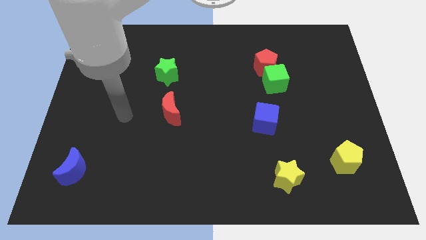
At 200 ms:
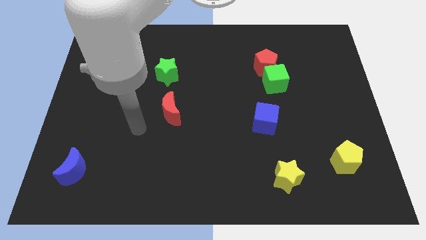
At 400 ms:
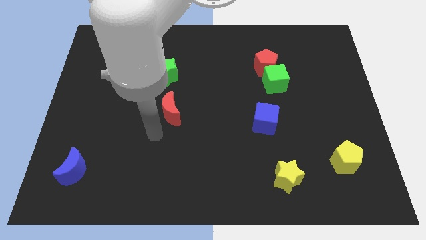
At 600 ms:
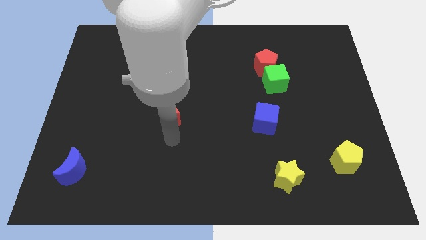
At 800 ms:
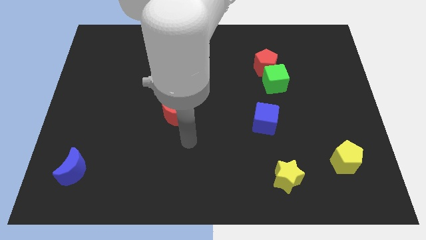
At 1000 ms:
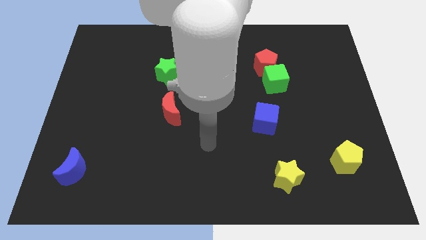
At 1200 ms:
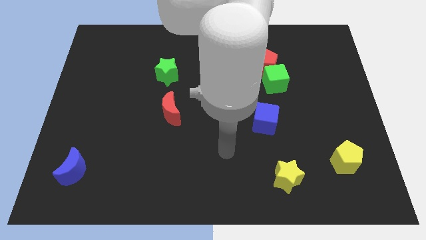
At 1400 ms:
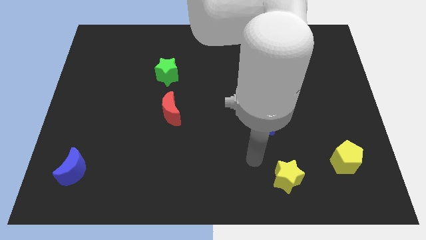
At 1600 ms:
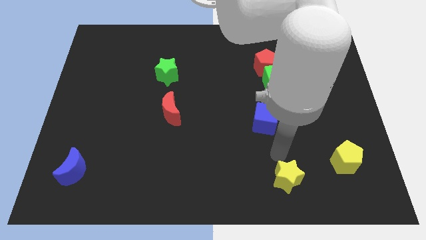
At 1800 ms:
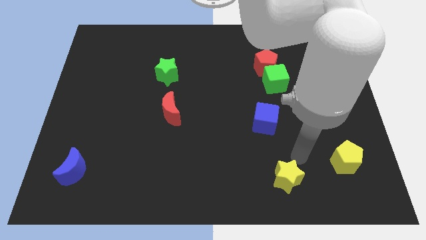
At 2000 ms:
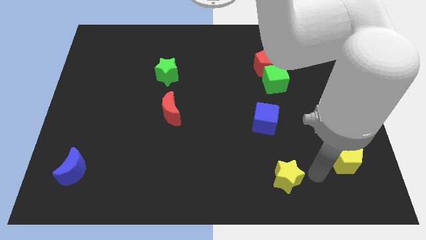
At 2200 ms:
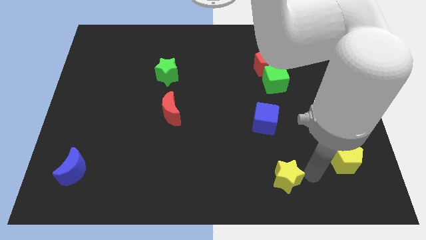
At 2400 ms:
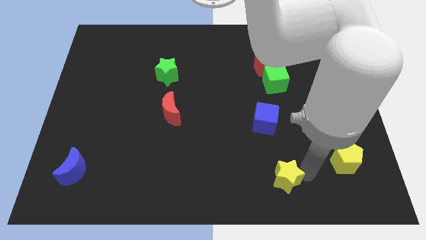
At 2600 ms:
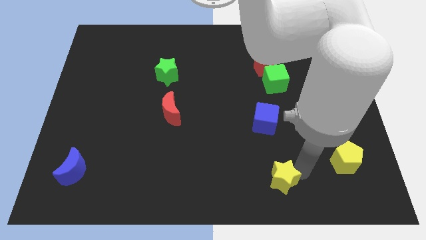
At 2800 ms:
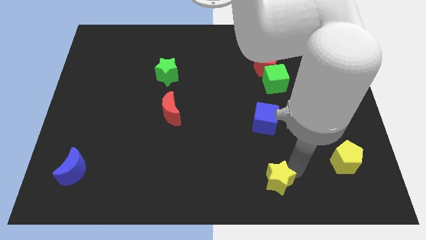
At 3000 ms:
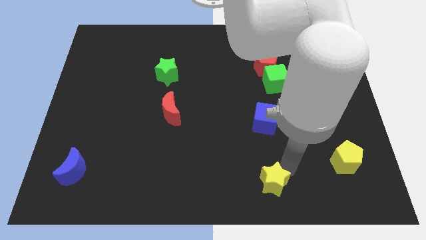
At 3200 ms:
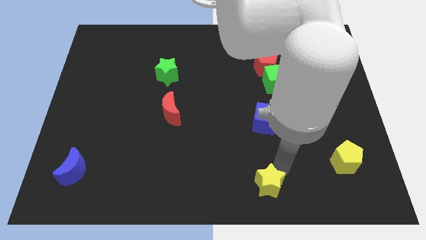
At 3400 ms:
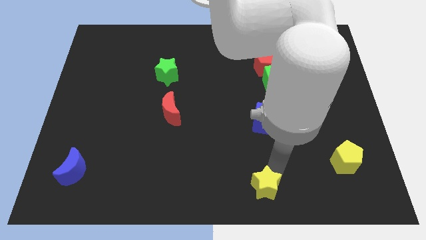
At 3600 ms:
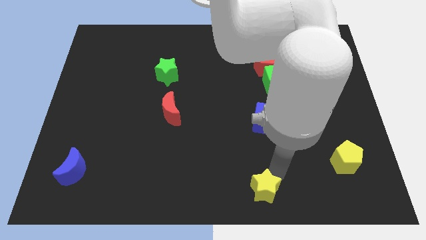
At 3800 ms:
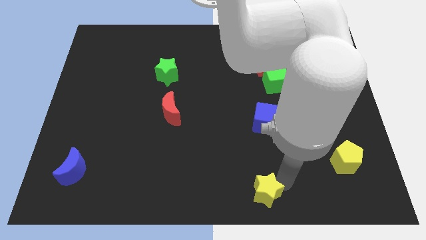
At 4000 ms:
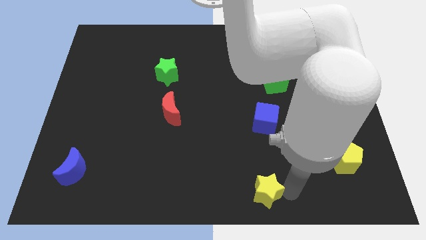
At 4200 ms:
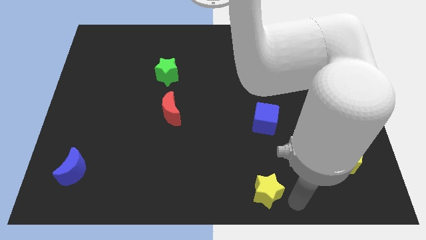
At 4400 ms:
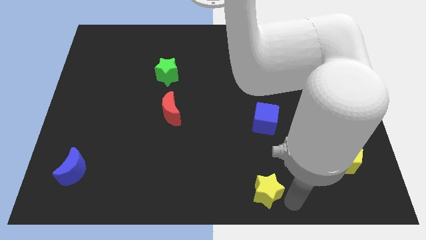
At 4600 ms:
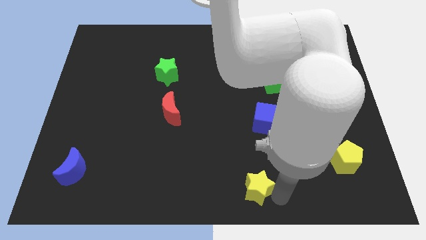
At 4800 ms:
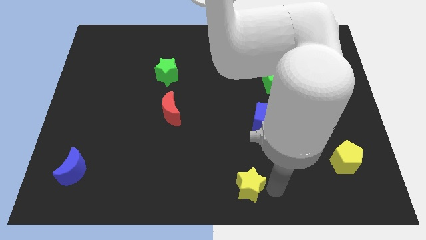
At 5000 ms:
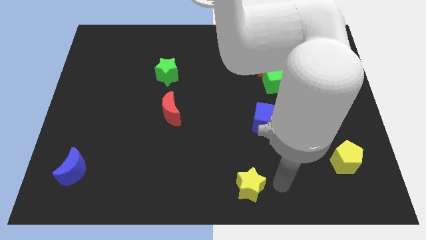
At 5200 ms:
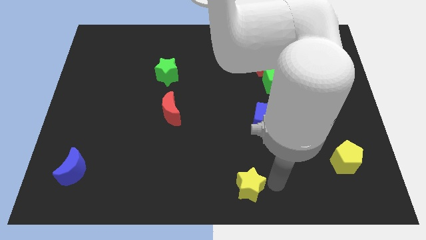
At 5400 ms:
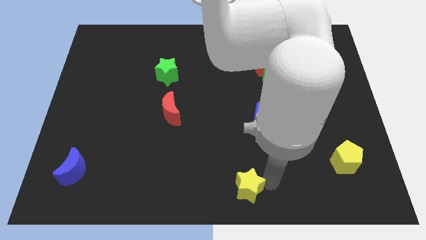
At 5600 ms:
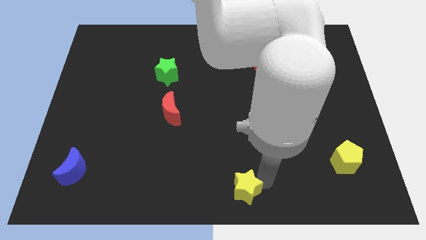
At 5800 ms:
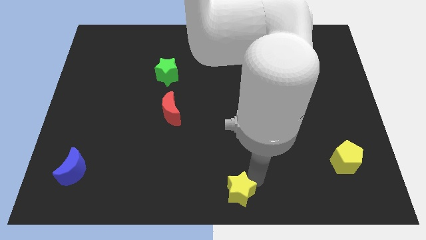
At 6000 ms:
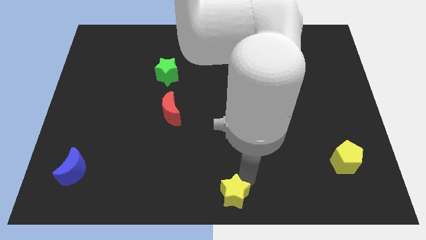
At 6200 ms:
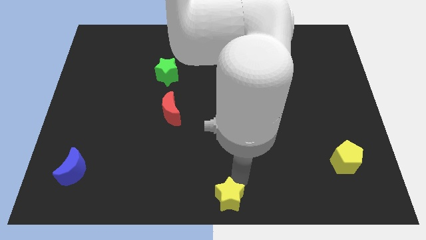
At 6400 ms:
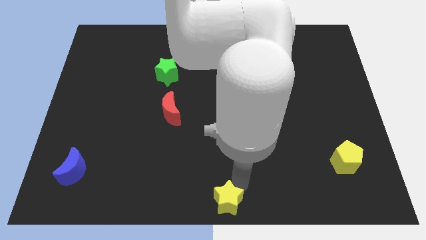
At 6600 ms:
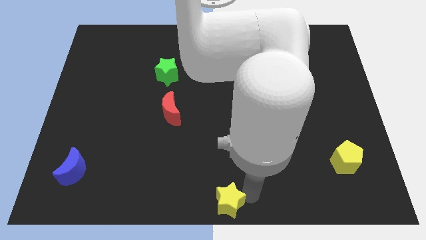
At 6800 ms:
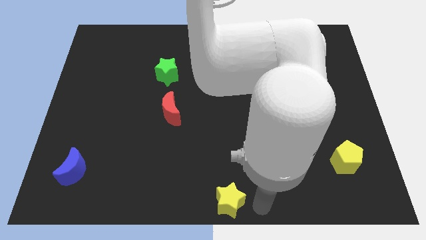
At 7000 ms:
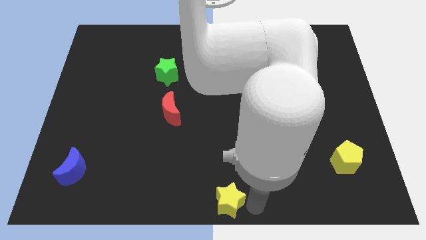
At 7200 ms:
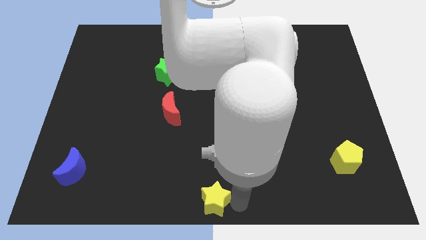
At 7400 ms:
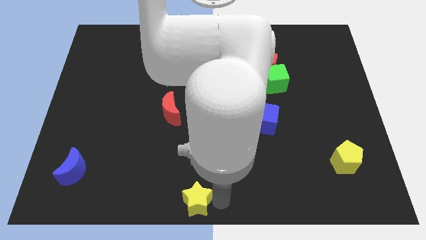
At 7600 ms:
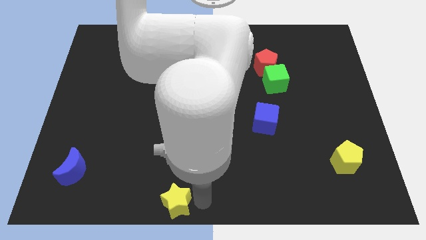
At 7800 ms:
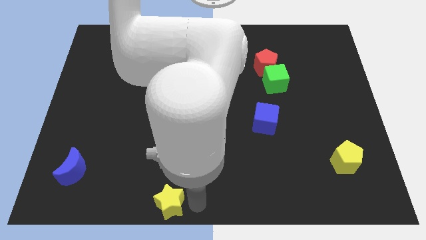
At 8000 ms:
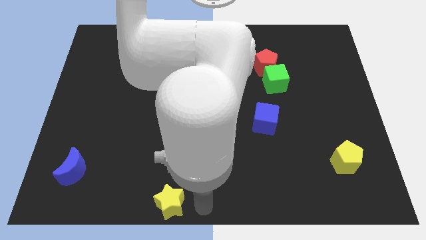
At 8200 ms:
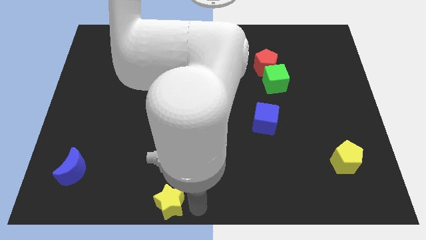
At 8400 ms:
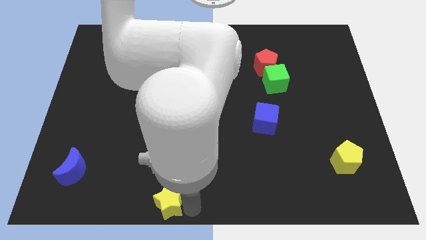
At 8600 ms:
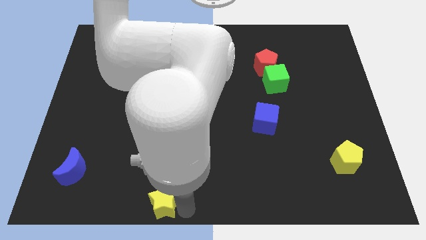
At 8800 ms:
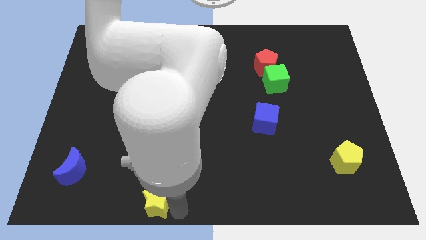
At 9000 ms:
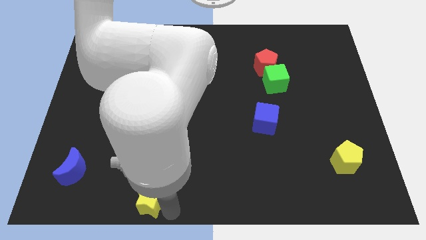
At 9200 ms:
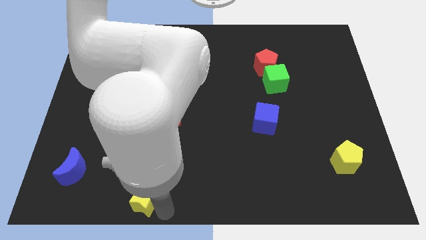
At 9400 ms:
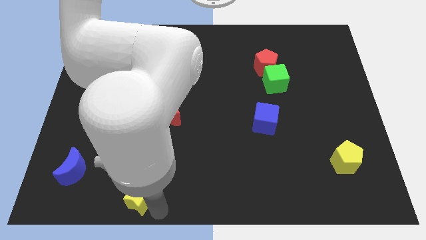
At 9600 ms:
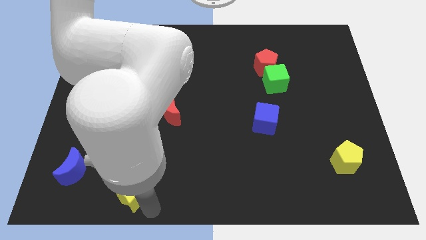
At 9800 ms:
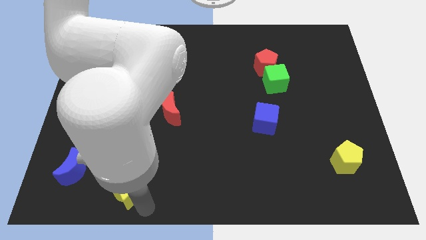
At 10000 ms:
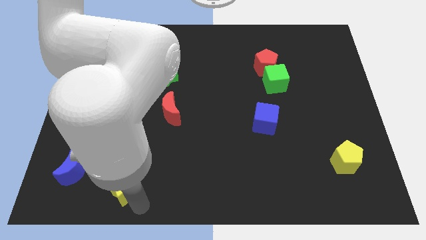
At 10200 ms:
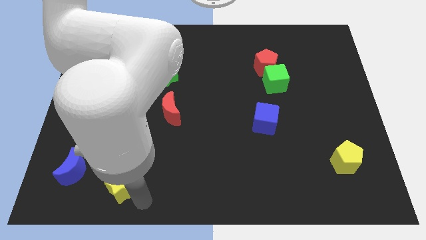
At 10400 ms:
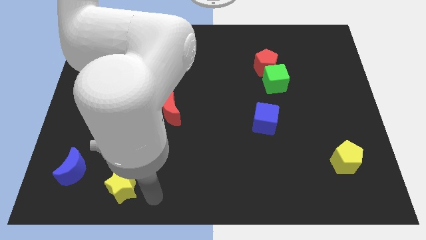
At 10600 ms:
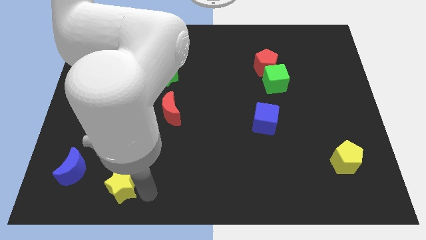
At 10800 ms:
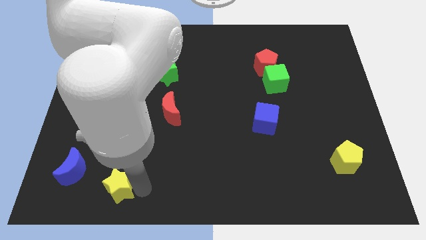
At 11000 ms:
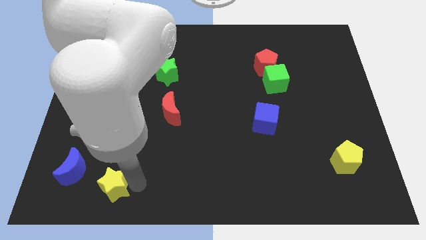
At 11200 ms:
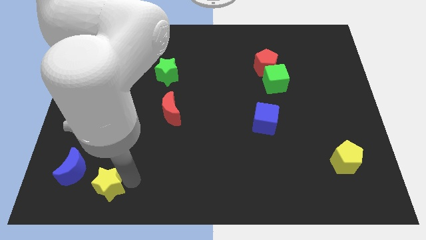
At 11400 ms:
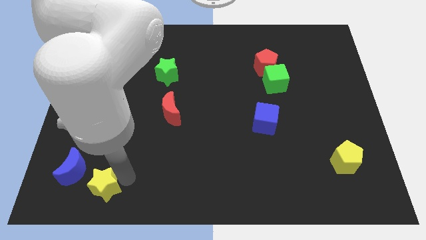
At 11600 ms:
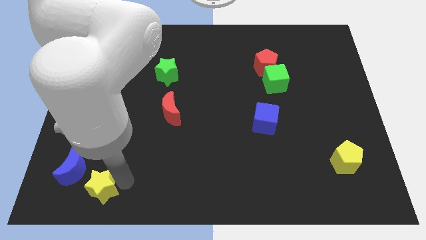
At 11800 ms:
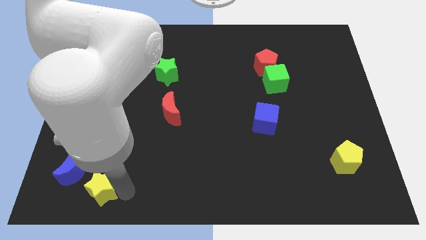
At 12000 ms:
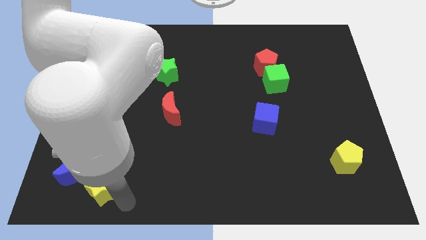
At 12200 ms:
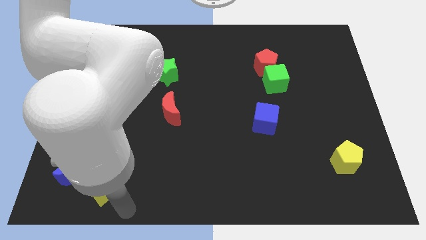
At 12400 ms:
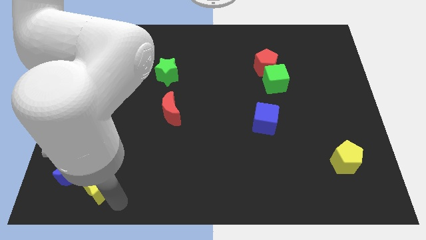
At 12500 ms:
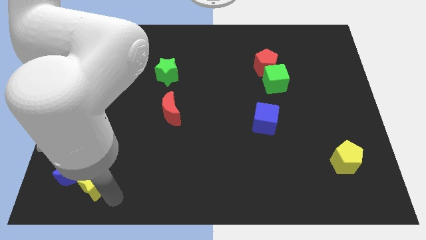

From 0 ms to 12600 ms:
put the yellow star next to the blue moon

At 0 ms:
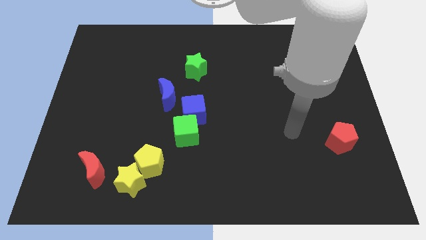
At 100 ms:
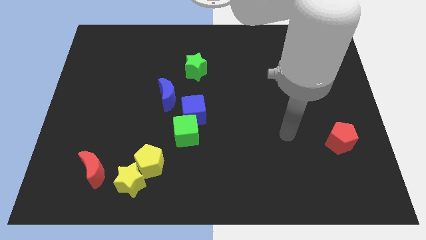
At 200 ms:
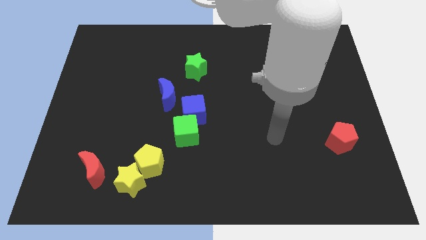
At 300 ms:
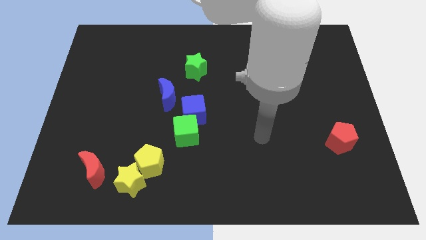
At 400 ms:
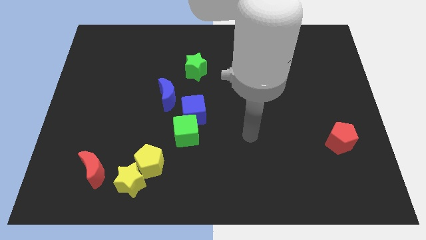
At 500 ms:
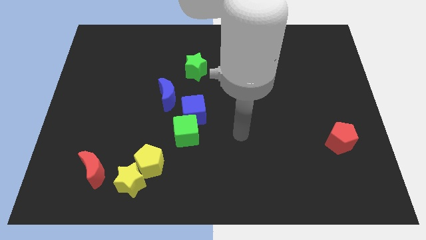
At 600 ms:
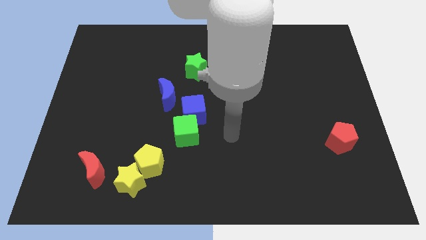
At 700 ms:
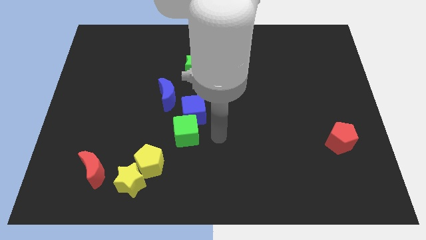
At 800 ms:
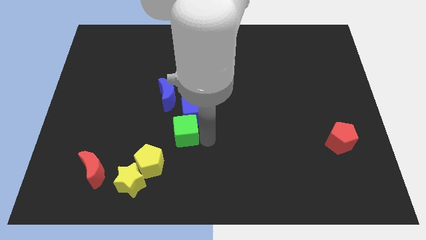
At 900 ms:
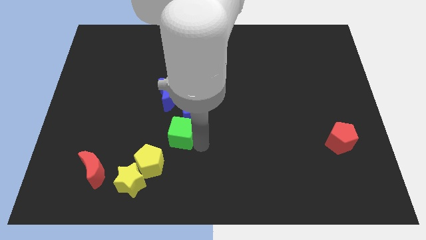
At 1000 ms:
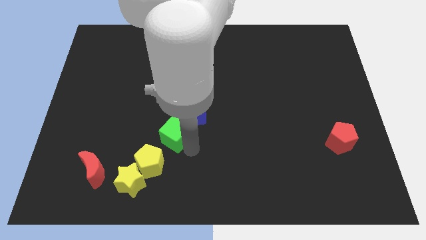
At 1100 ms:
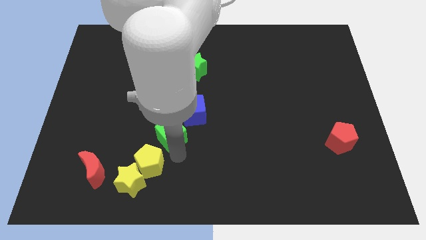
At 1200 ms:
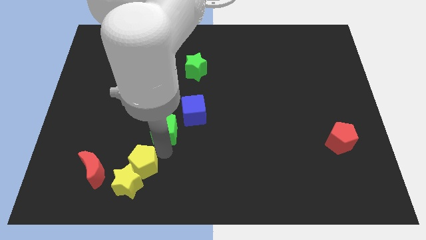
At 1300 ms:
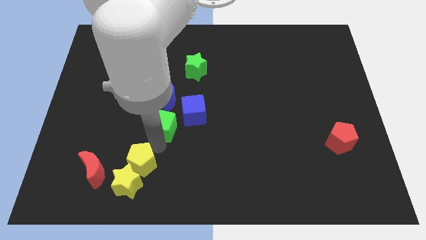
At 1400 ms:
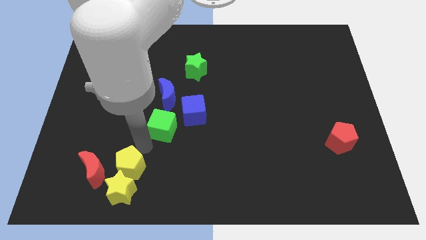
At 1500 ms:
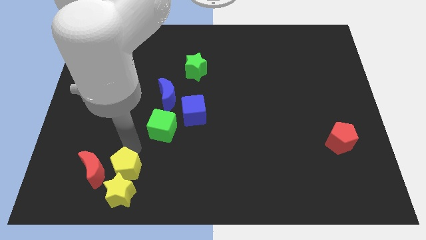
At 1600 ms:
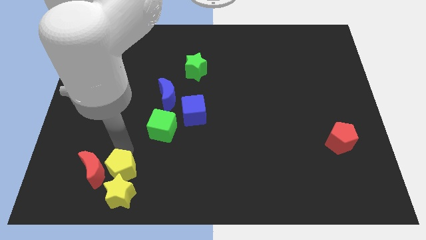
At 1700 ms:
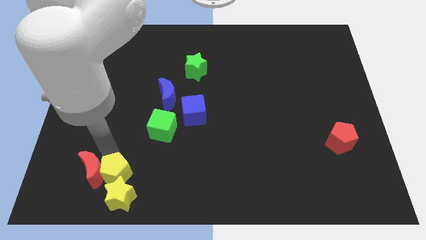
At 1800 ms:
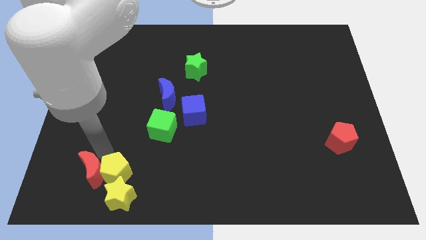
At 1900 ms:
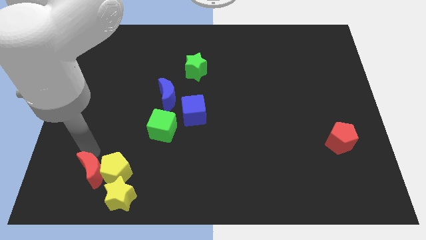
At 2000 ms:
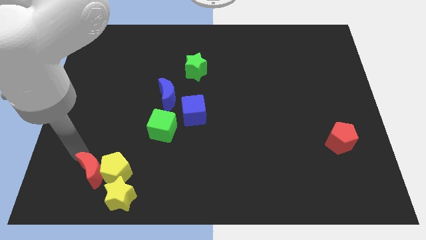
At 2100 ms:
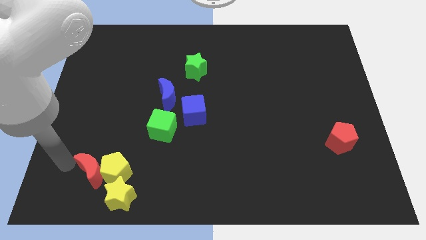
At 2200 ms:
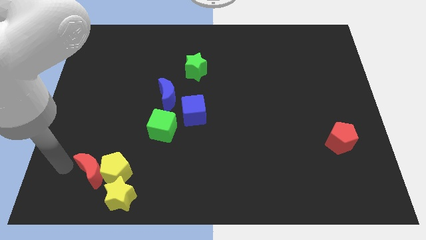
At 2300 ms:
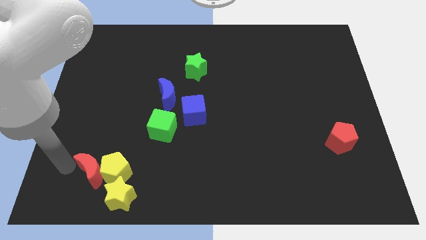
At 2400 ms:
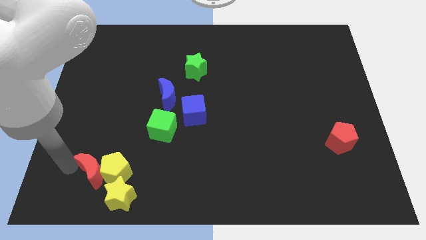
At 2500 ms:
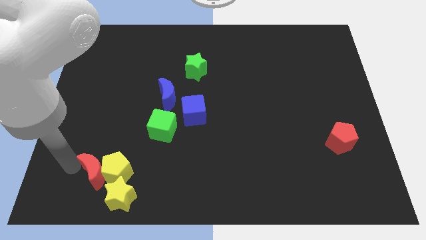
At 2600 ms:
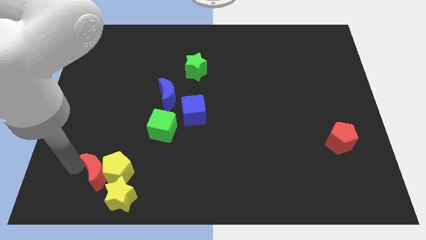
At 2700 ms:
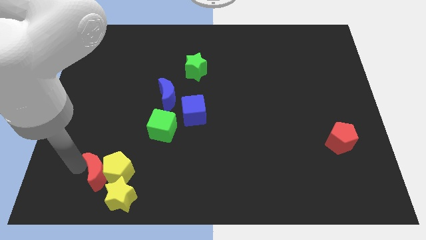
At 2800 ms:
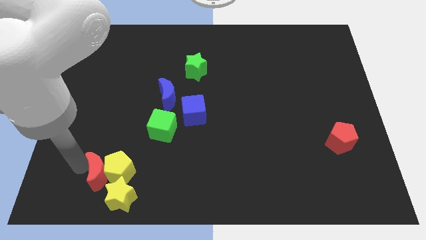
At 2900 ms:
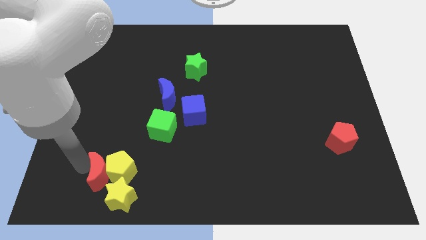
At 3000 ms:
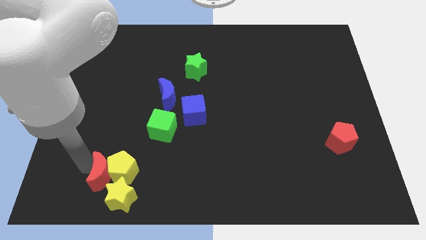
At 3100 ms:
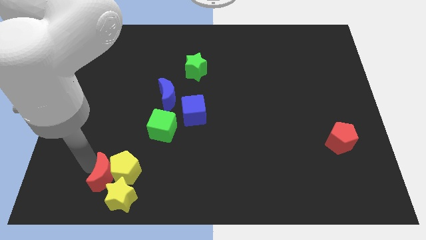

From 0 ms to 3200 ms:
push the red moon next to the yellow star
